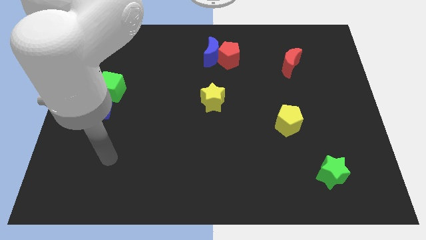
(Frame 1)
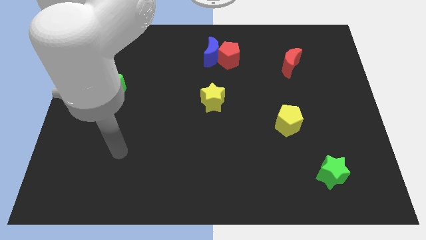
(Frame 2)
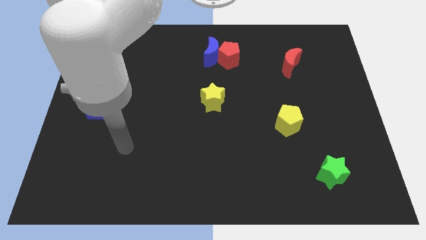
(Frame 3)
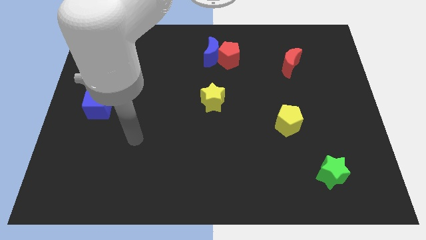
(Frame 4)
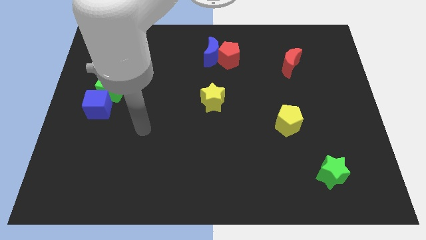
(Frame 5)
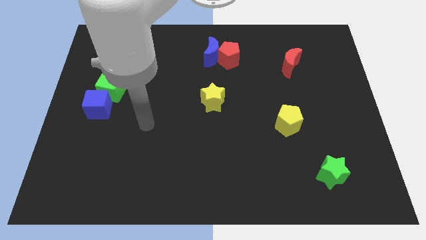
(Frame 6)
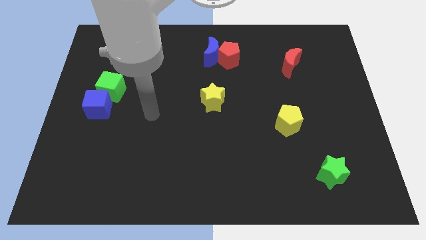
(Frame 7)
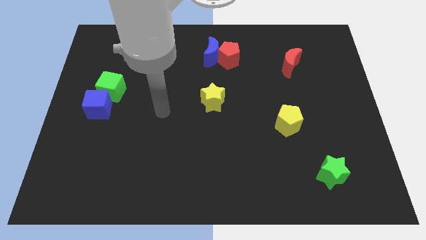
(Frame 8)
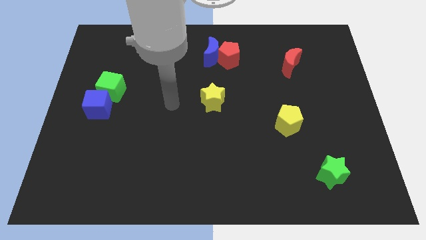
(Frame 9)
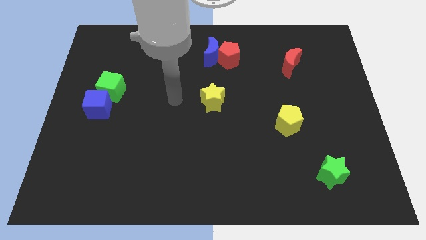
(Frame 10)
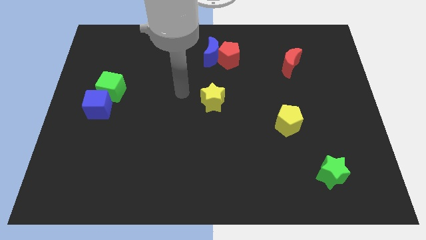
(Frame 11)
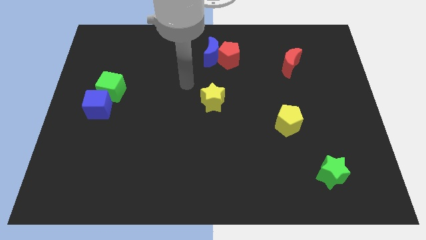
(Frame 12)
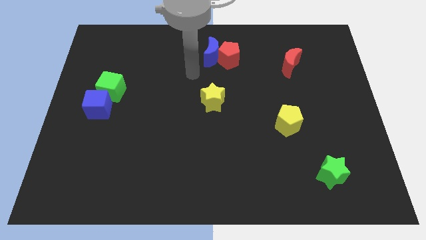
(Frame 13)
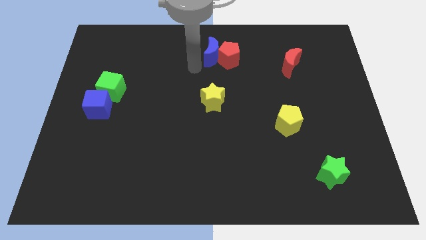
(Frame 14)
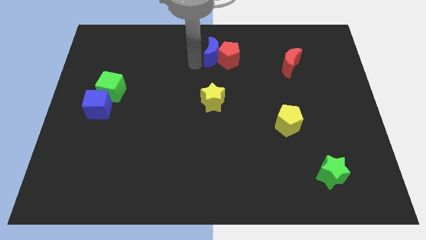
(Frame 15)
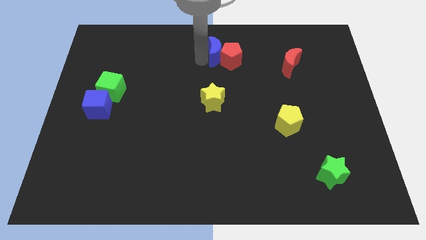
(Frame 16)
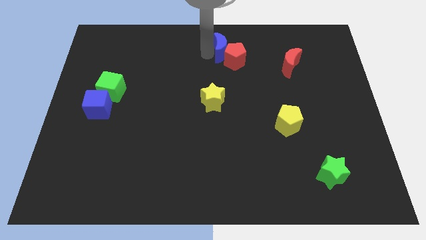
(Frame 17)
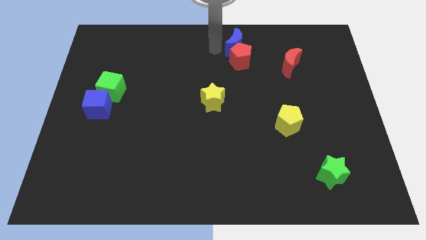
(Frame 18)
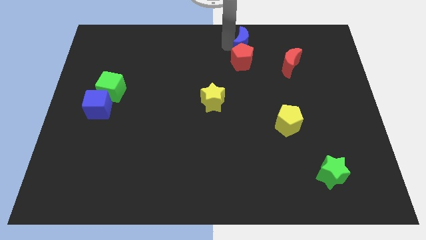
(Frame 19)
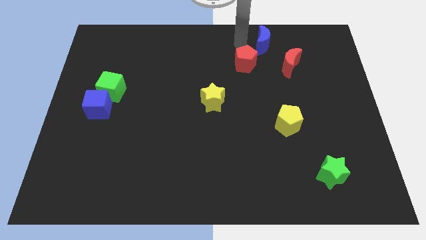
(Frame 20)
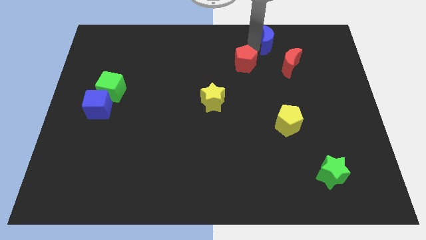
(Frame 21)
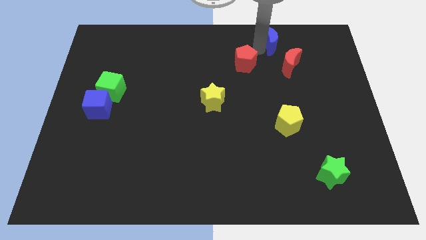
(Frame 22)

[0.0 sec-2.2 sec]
move the red pentagon away from the blue moon

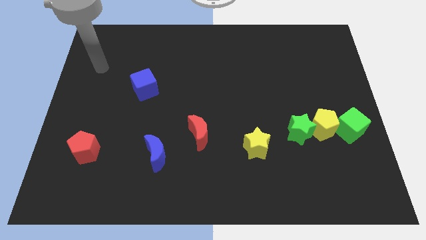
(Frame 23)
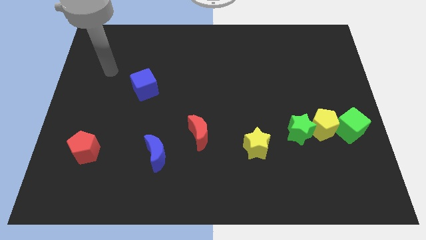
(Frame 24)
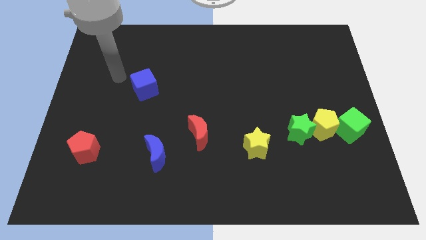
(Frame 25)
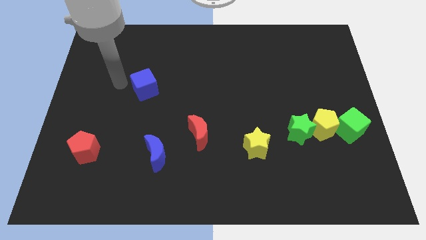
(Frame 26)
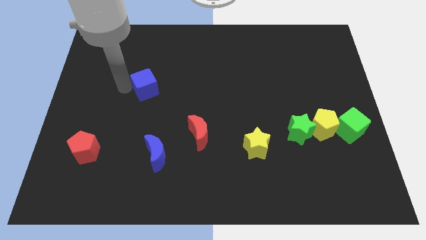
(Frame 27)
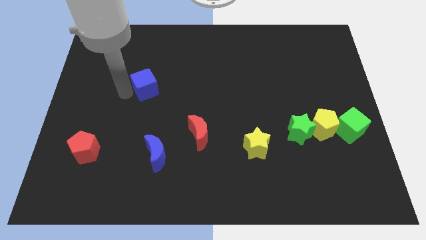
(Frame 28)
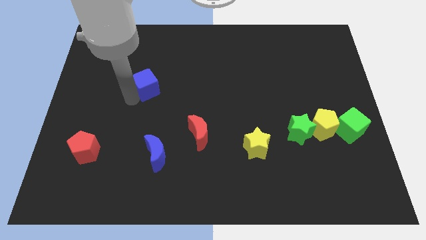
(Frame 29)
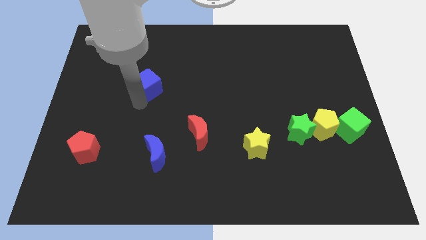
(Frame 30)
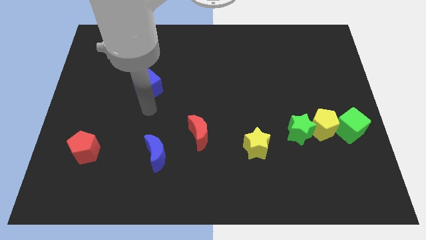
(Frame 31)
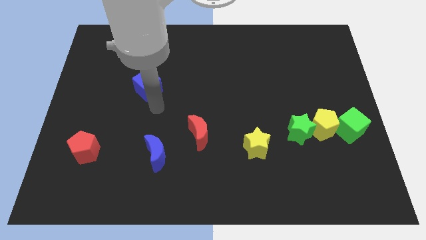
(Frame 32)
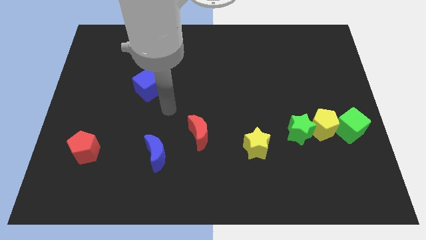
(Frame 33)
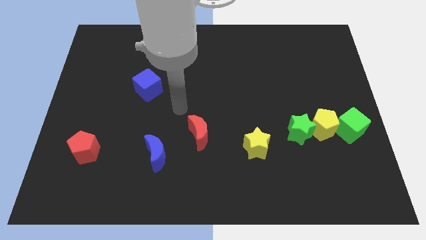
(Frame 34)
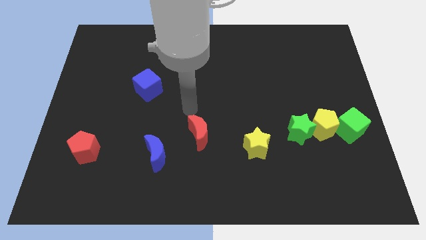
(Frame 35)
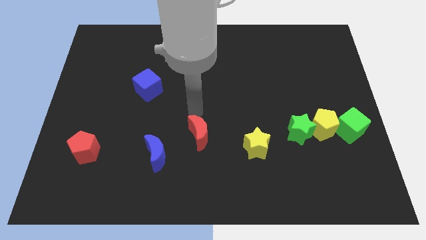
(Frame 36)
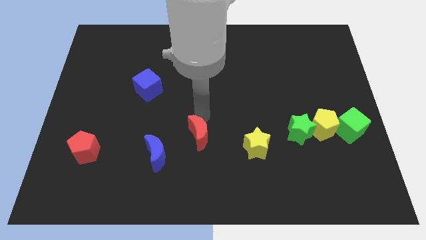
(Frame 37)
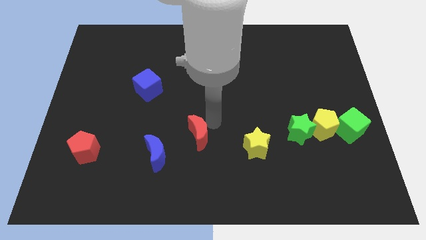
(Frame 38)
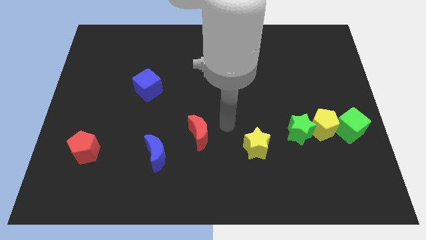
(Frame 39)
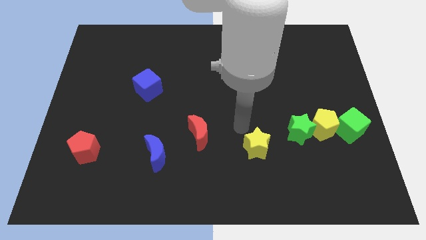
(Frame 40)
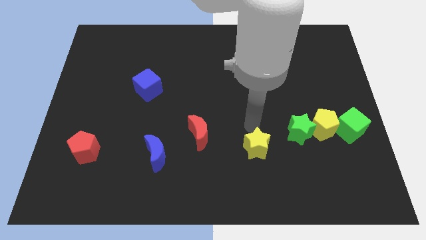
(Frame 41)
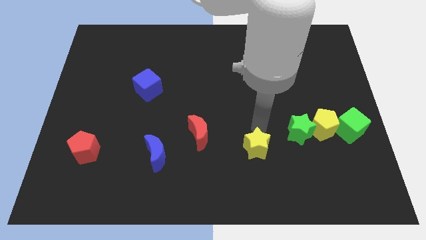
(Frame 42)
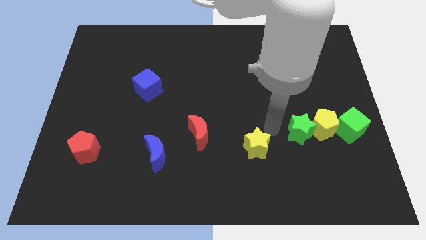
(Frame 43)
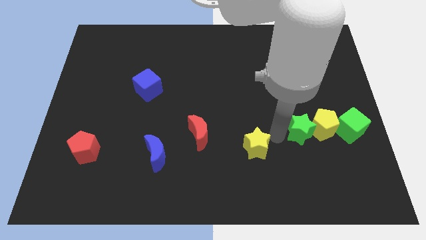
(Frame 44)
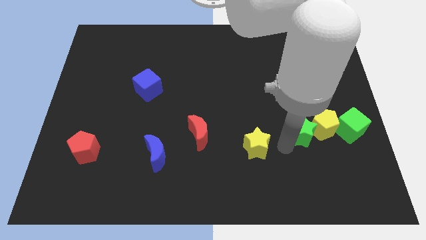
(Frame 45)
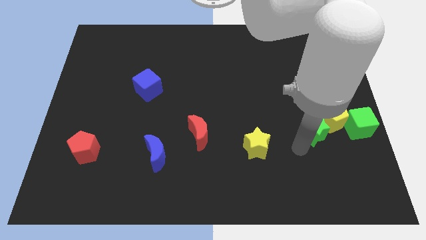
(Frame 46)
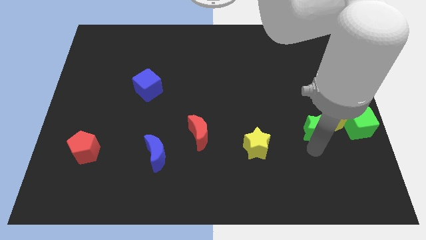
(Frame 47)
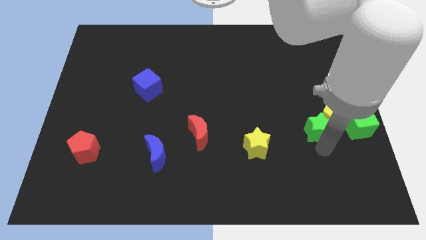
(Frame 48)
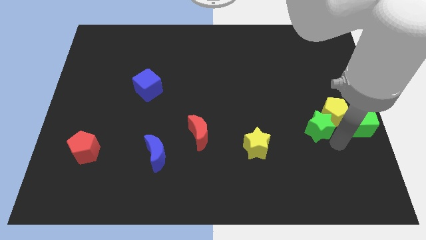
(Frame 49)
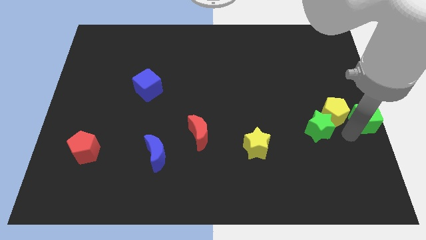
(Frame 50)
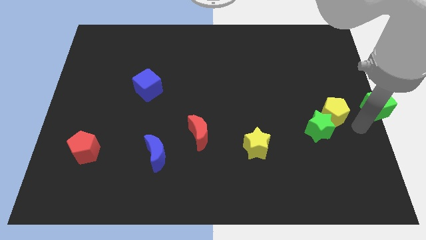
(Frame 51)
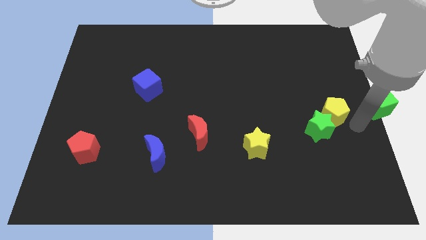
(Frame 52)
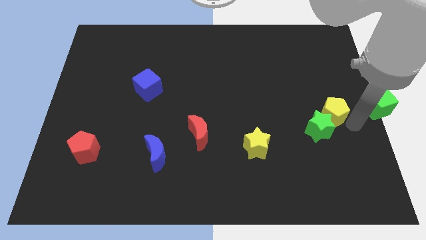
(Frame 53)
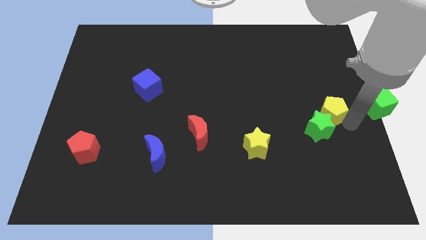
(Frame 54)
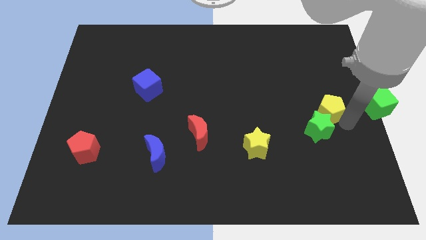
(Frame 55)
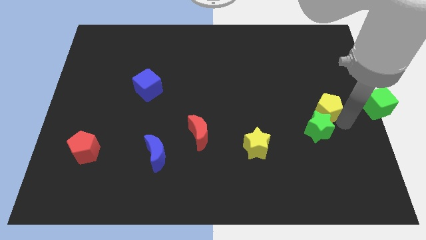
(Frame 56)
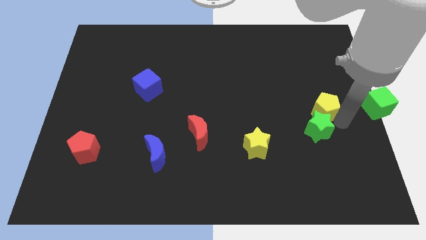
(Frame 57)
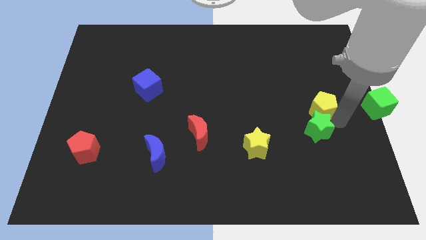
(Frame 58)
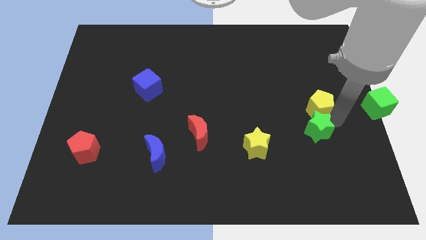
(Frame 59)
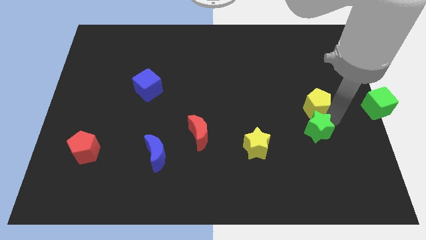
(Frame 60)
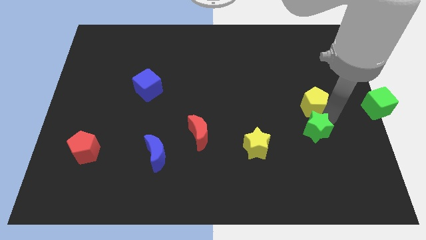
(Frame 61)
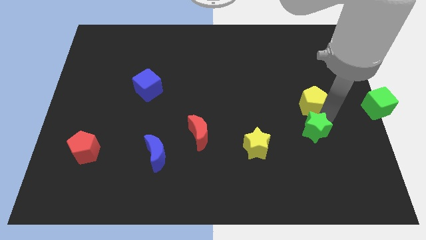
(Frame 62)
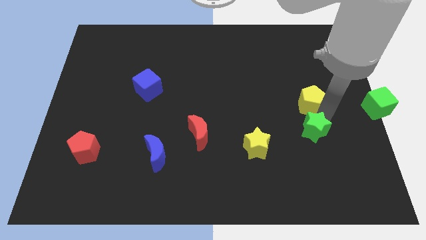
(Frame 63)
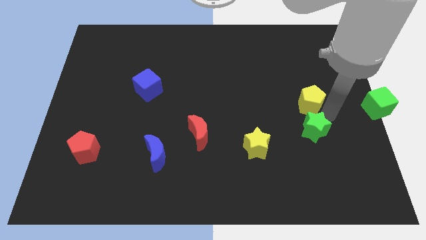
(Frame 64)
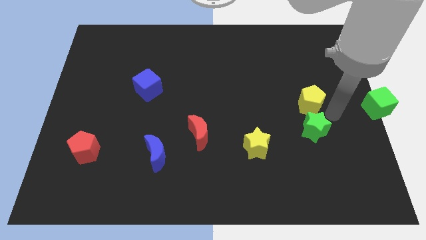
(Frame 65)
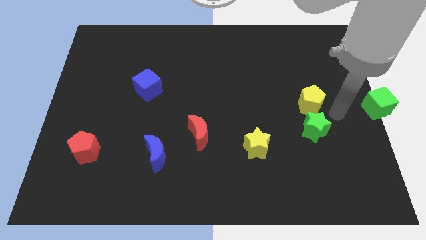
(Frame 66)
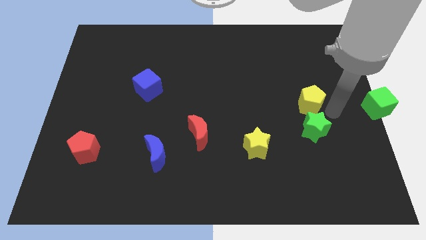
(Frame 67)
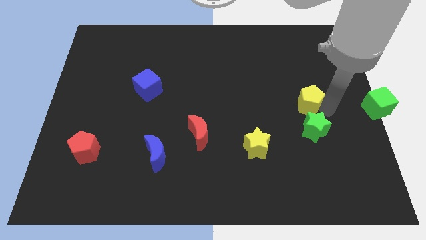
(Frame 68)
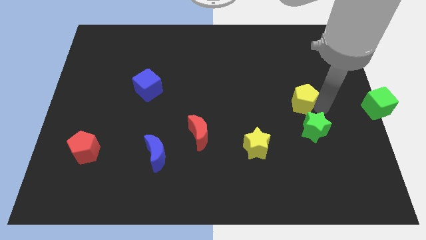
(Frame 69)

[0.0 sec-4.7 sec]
pull the yellow pentagon apart from the green star and green cube

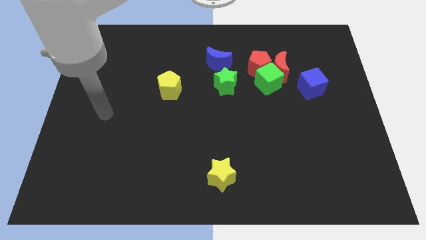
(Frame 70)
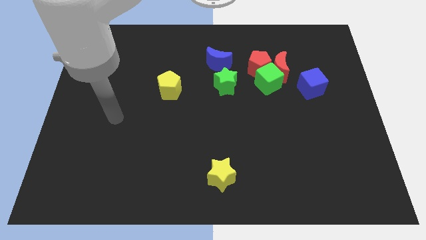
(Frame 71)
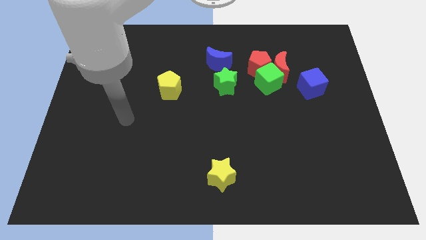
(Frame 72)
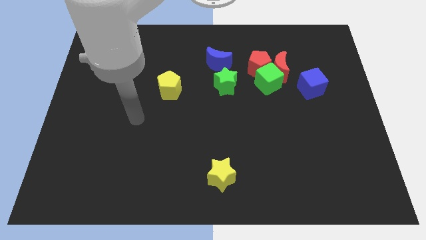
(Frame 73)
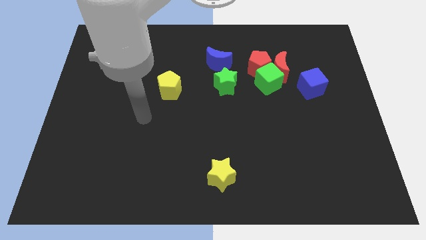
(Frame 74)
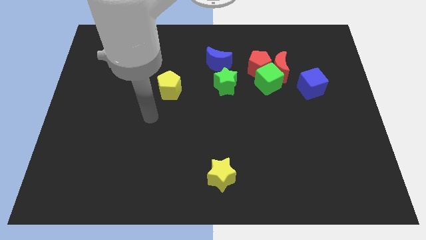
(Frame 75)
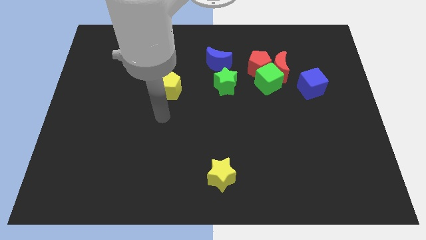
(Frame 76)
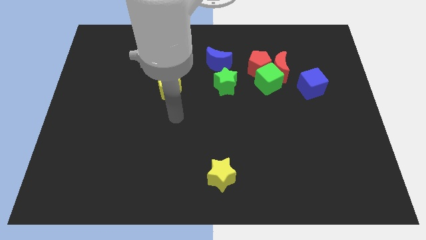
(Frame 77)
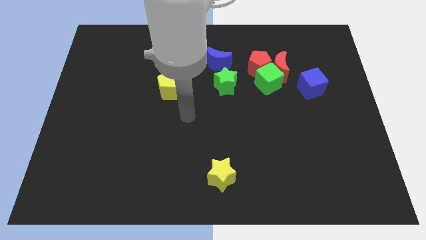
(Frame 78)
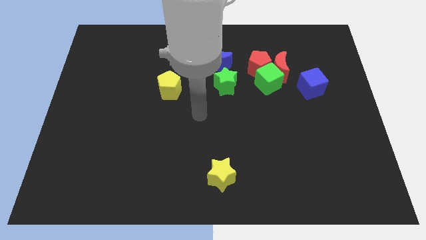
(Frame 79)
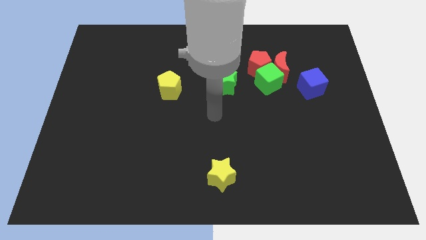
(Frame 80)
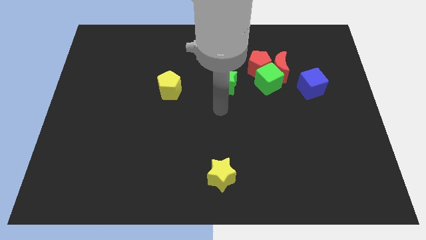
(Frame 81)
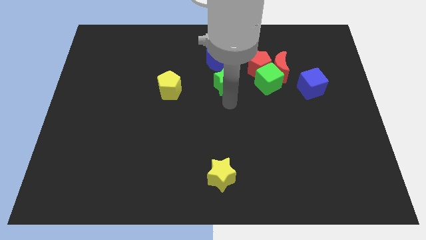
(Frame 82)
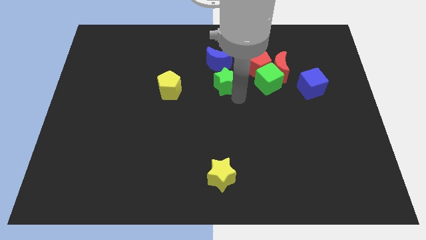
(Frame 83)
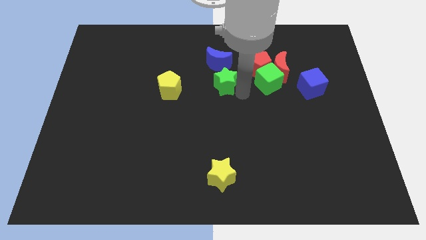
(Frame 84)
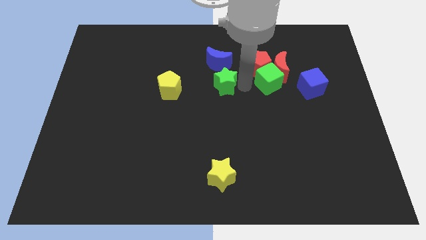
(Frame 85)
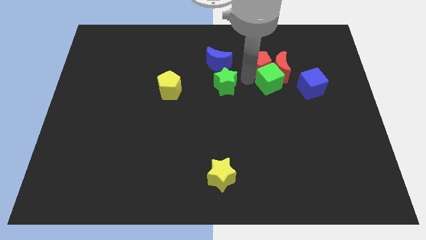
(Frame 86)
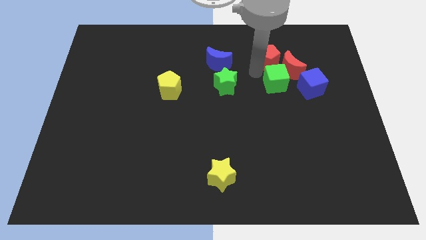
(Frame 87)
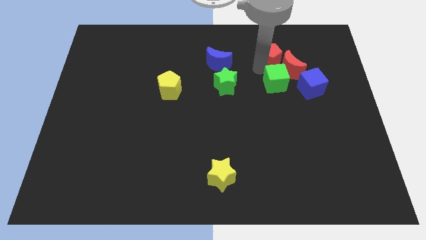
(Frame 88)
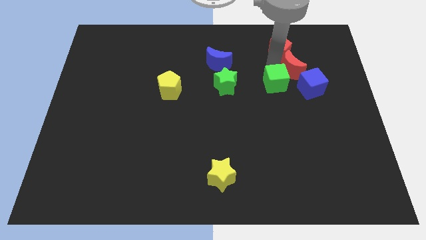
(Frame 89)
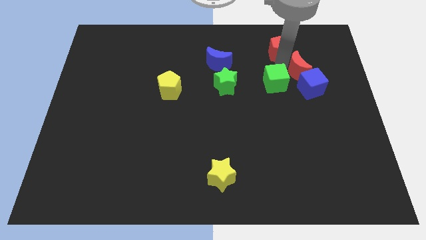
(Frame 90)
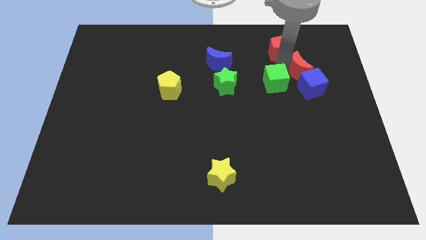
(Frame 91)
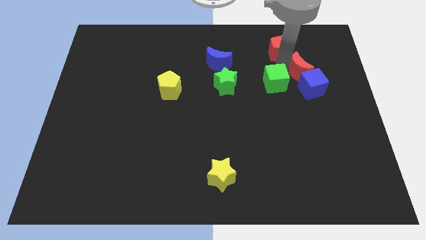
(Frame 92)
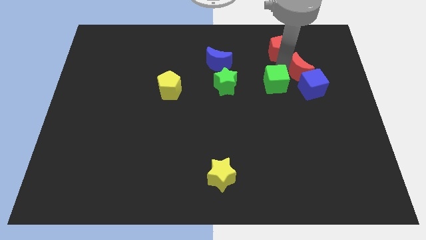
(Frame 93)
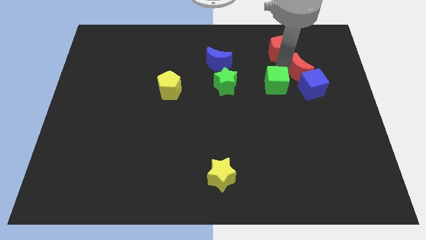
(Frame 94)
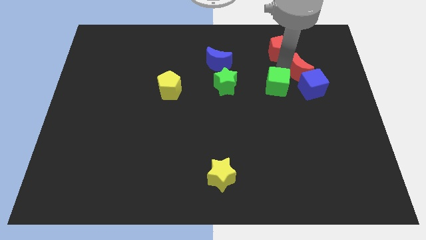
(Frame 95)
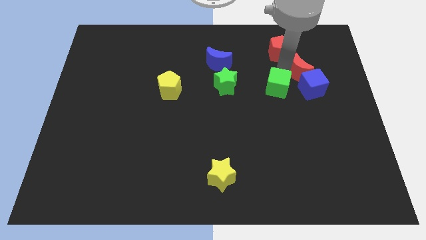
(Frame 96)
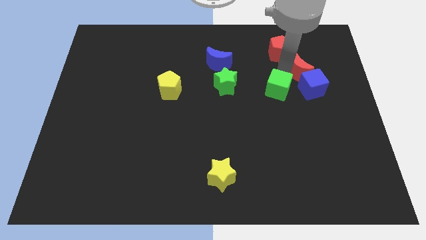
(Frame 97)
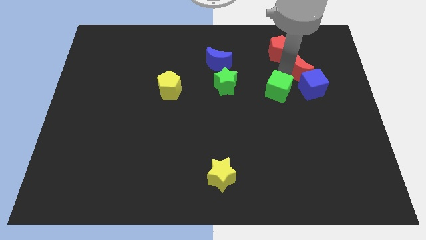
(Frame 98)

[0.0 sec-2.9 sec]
move the green cube away from the red moon and red pentagon
